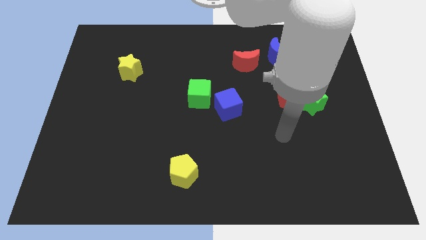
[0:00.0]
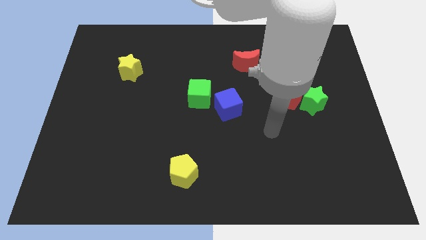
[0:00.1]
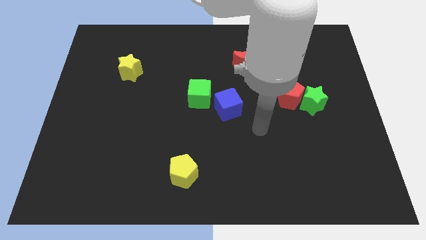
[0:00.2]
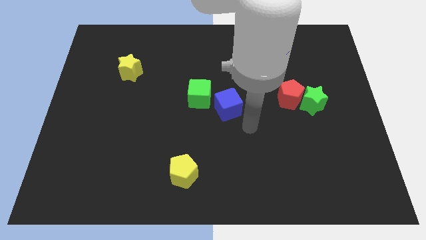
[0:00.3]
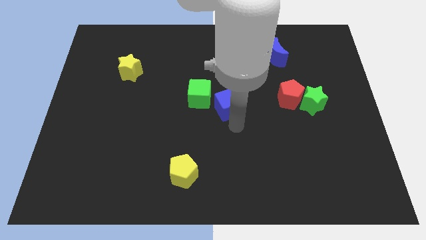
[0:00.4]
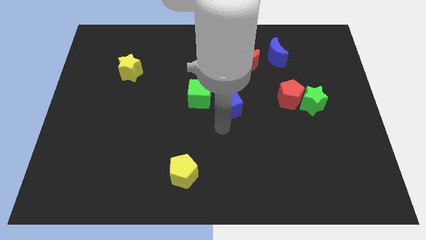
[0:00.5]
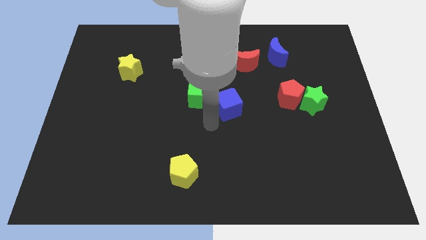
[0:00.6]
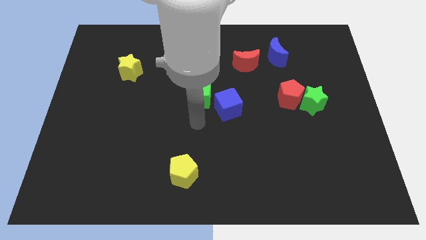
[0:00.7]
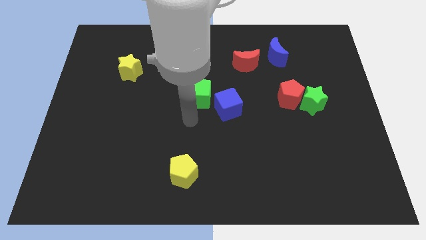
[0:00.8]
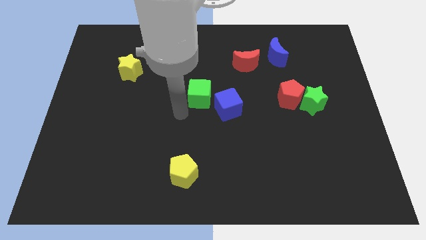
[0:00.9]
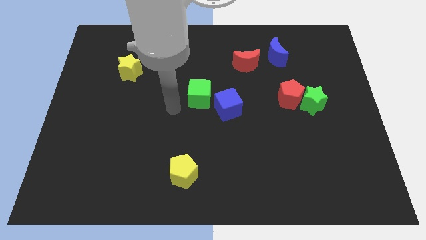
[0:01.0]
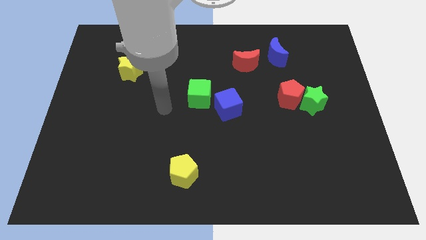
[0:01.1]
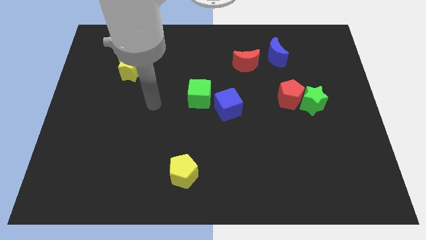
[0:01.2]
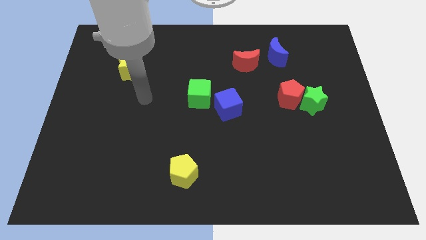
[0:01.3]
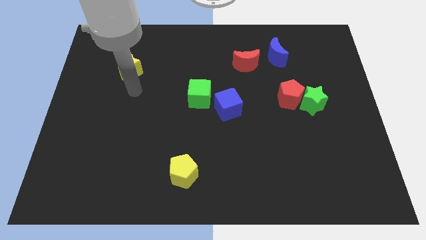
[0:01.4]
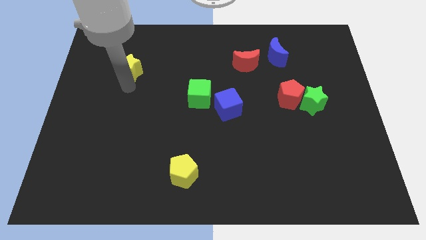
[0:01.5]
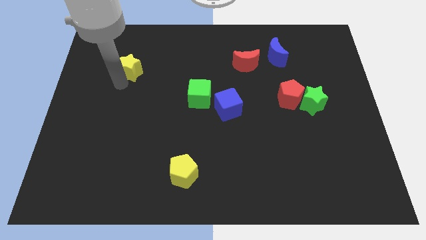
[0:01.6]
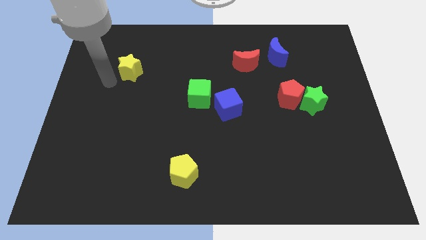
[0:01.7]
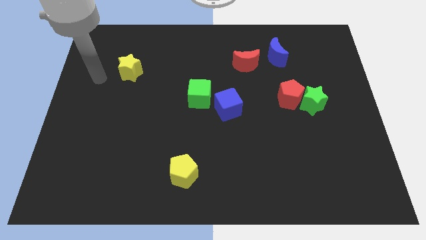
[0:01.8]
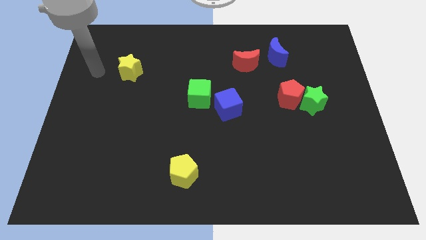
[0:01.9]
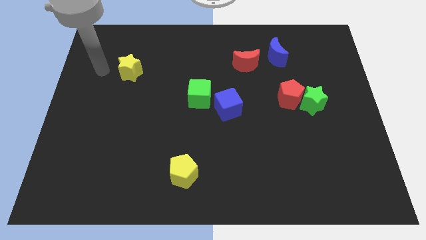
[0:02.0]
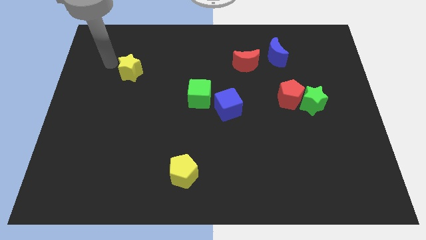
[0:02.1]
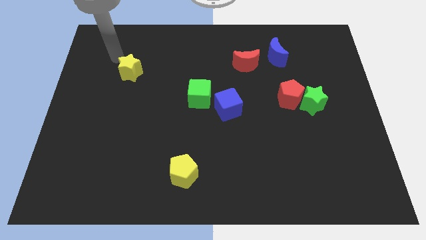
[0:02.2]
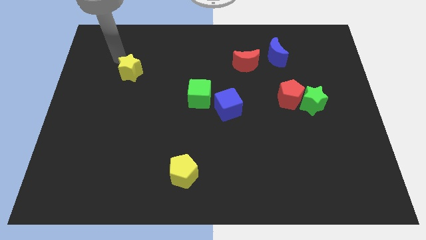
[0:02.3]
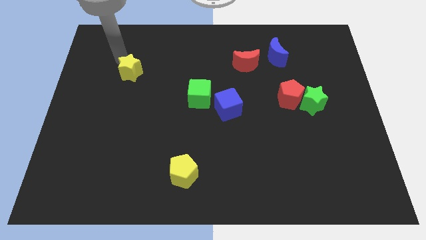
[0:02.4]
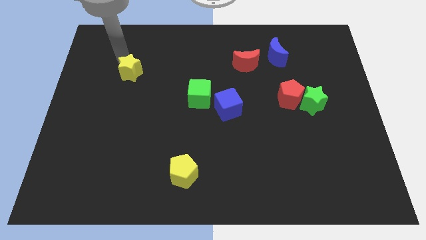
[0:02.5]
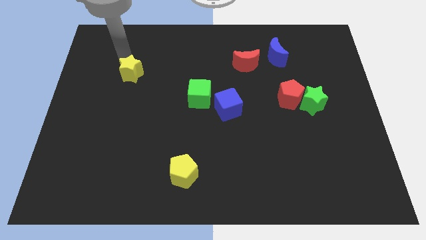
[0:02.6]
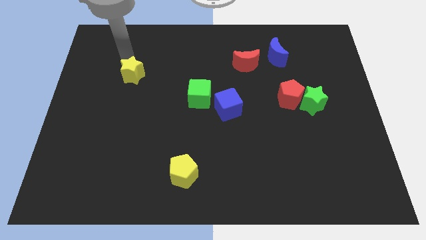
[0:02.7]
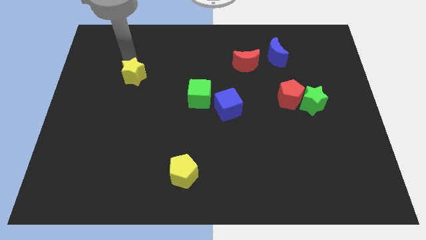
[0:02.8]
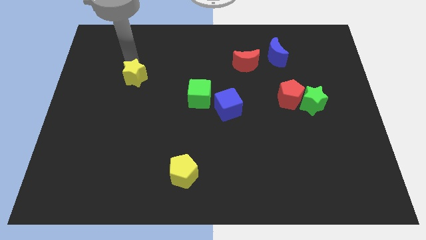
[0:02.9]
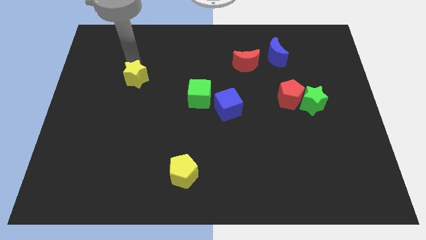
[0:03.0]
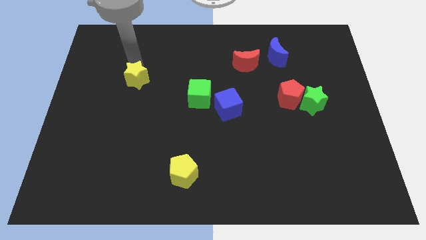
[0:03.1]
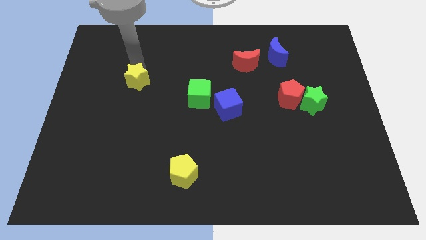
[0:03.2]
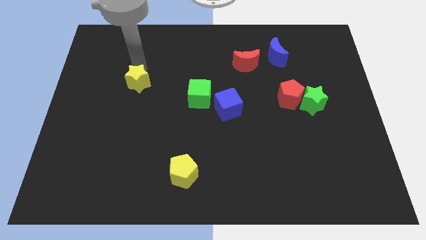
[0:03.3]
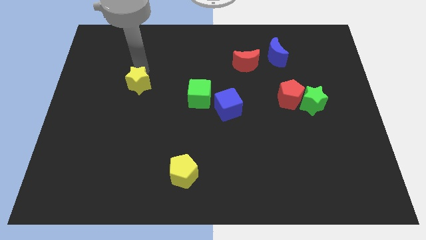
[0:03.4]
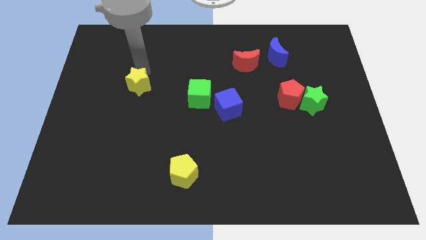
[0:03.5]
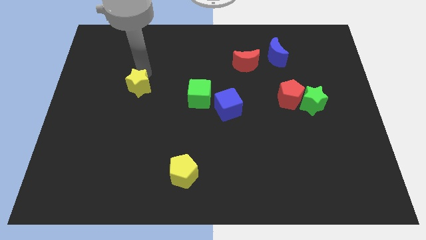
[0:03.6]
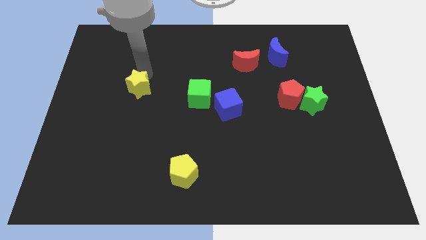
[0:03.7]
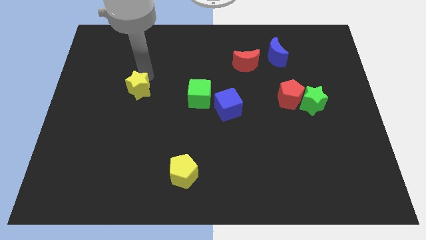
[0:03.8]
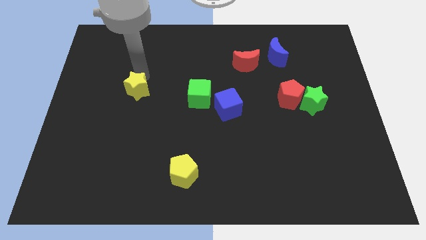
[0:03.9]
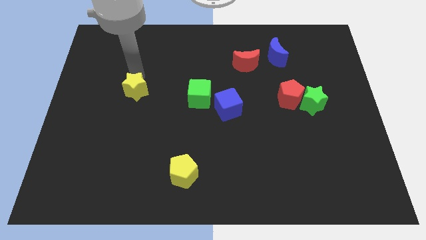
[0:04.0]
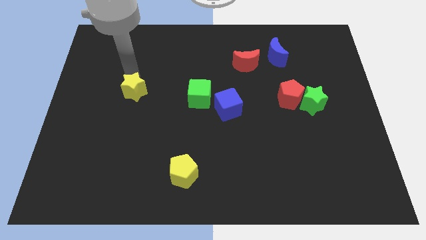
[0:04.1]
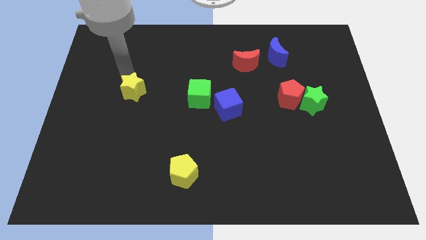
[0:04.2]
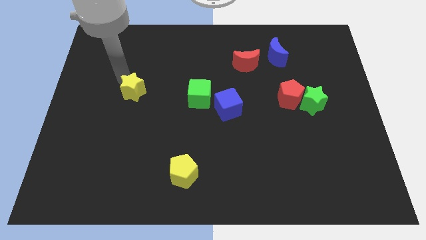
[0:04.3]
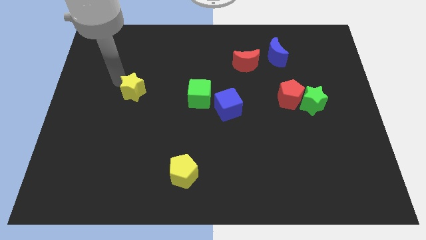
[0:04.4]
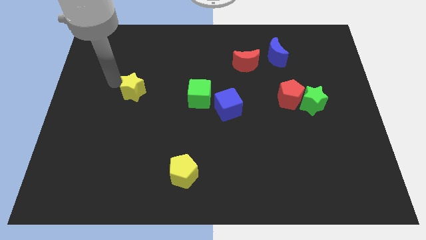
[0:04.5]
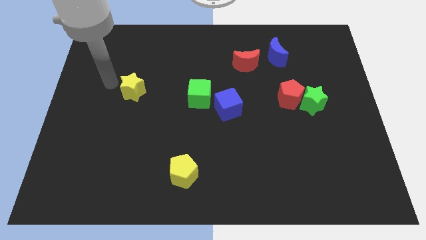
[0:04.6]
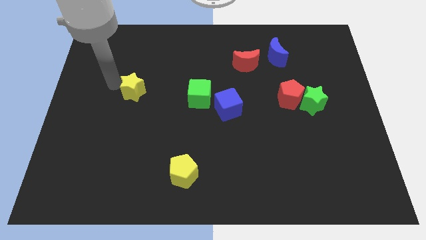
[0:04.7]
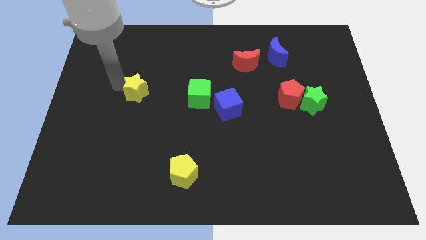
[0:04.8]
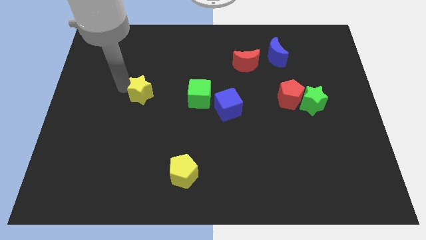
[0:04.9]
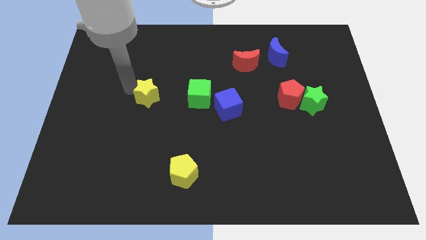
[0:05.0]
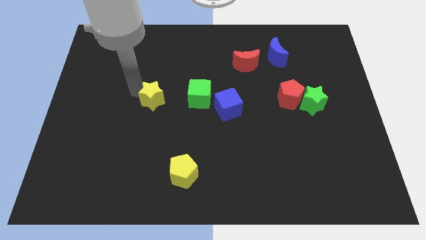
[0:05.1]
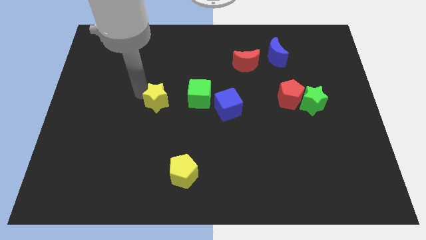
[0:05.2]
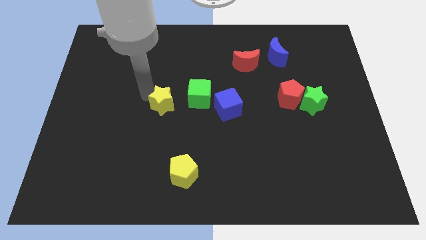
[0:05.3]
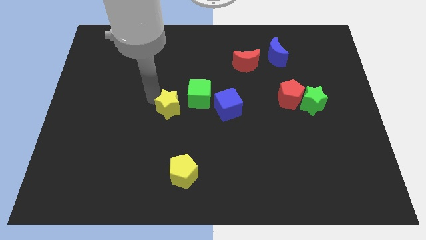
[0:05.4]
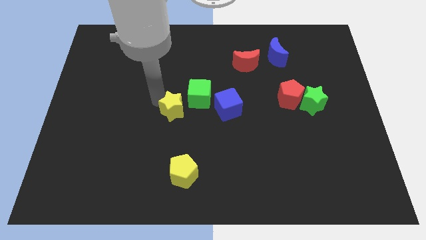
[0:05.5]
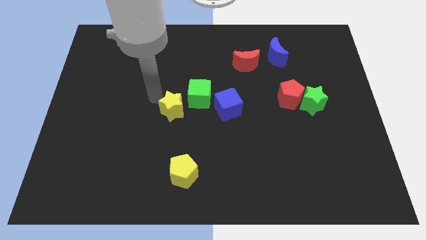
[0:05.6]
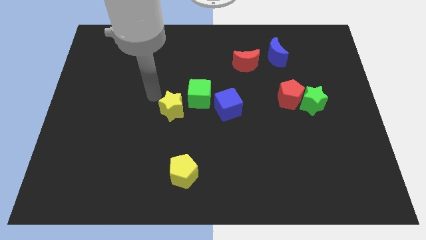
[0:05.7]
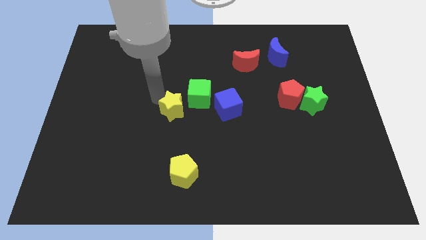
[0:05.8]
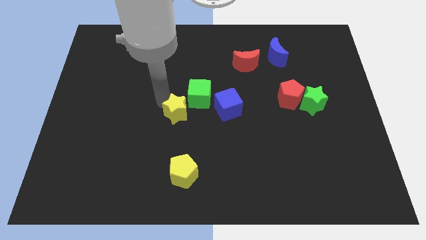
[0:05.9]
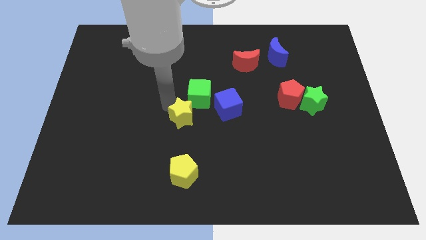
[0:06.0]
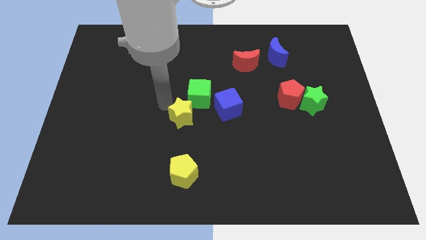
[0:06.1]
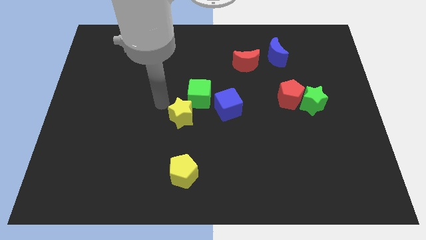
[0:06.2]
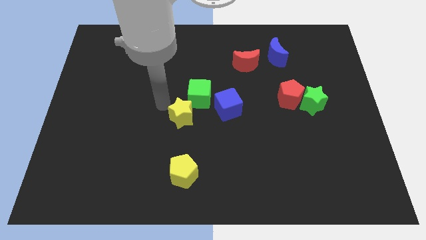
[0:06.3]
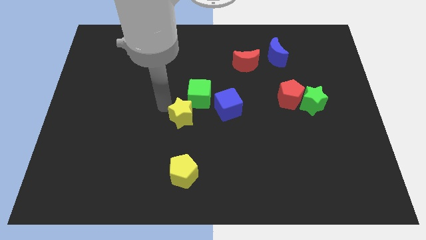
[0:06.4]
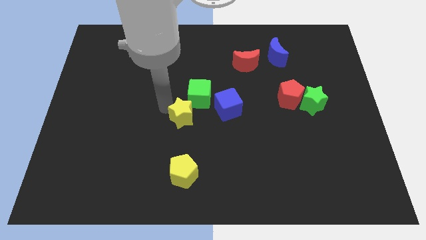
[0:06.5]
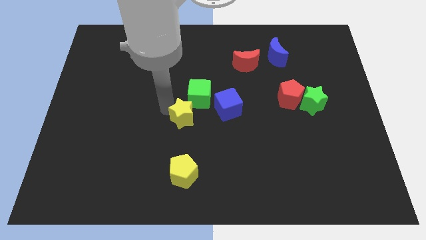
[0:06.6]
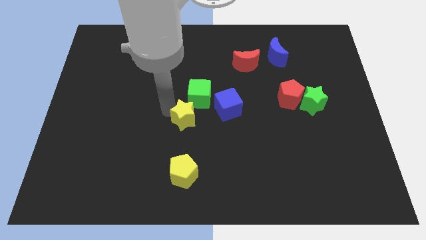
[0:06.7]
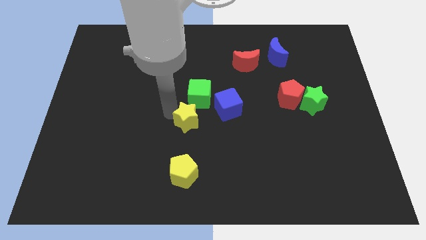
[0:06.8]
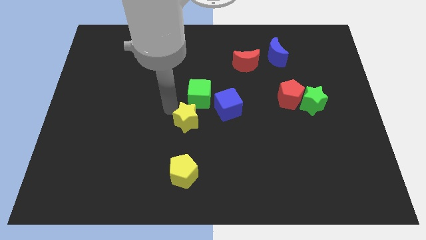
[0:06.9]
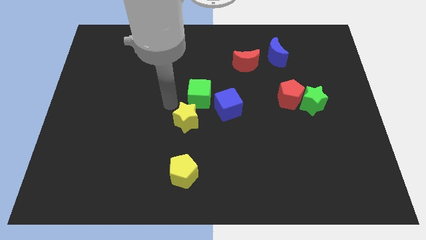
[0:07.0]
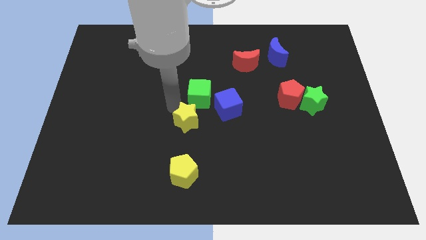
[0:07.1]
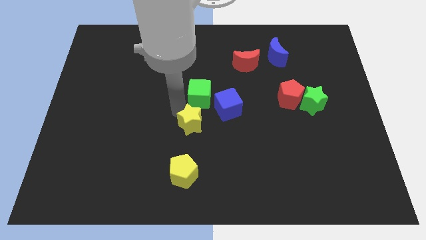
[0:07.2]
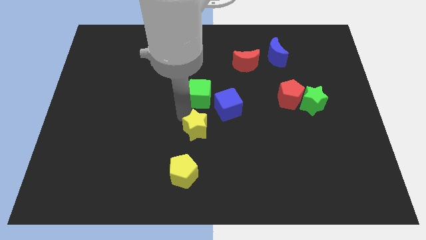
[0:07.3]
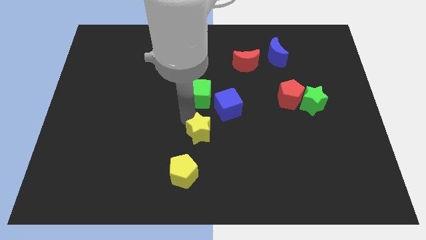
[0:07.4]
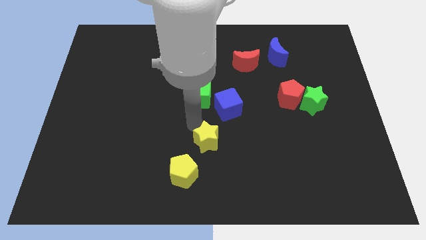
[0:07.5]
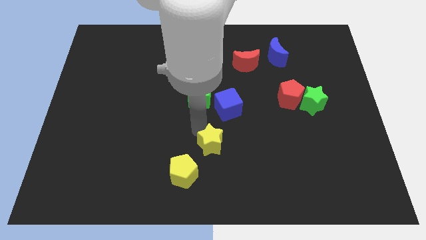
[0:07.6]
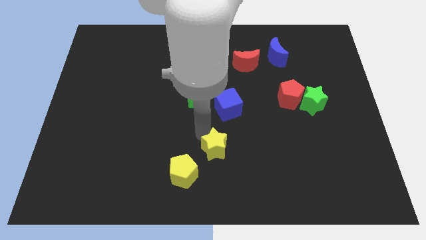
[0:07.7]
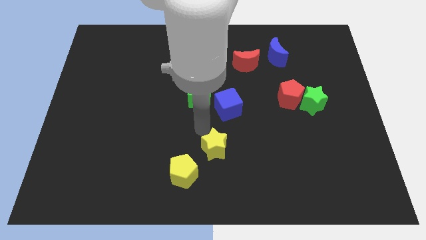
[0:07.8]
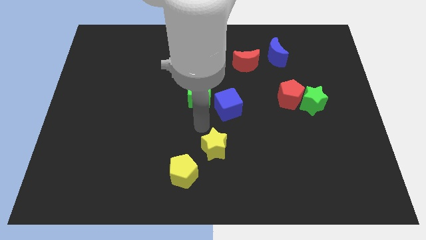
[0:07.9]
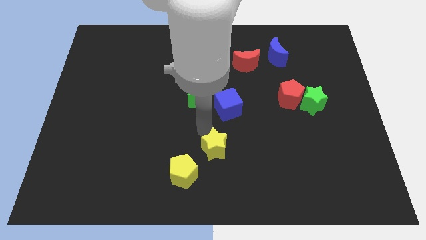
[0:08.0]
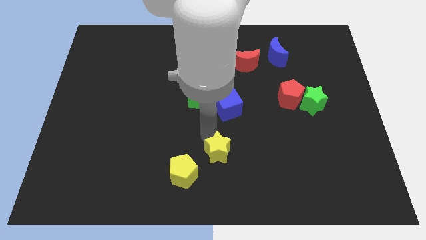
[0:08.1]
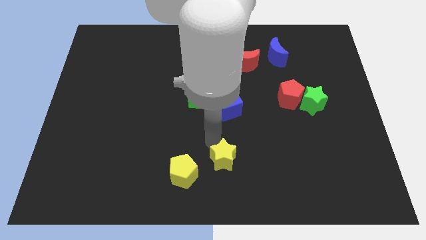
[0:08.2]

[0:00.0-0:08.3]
put the yellow star to the right of the yellow pentagon
